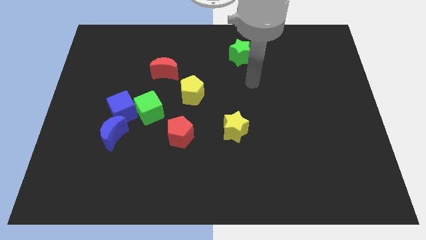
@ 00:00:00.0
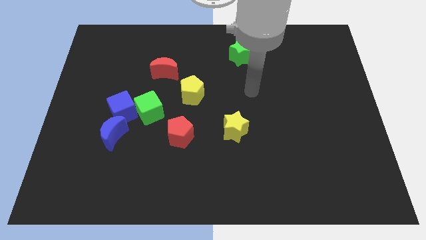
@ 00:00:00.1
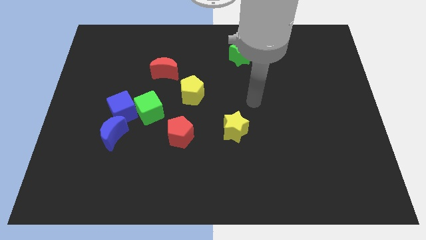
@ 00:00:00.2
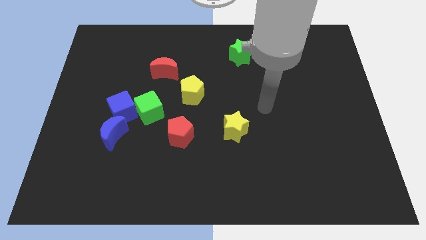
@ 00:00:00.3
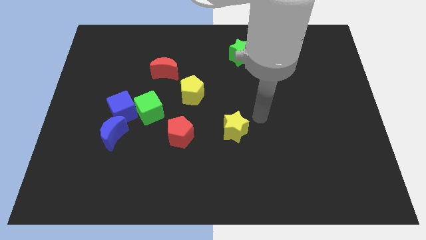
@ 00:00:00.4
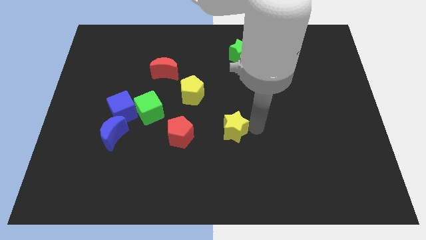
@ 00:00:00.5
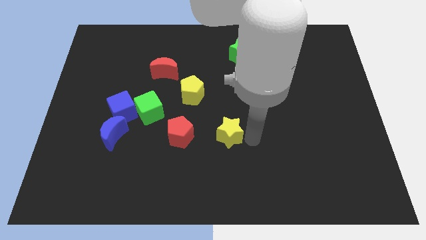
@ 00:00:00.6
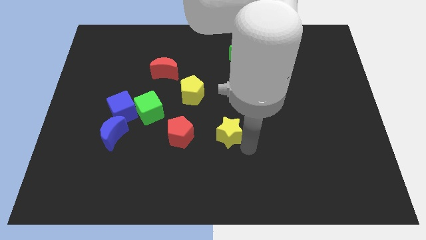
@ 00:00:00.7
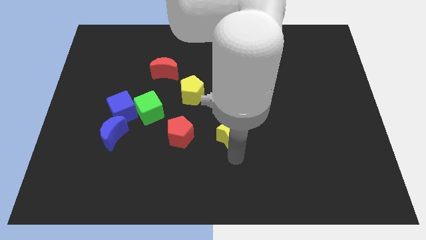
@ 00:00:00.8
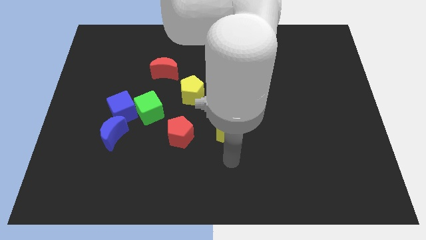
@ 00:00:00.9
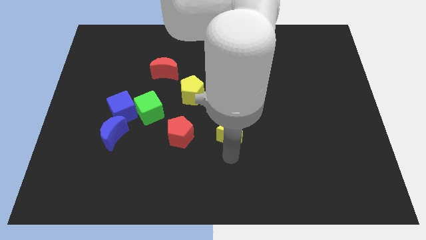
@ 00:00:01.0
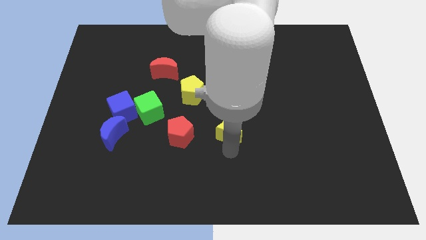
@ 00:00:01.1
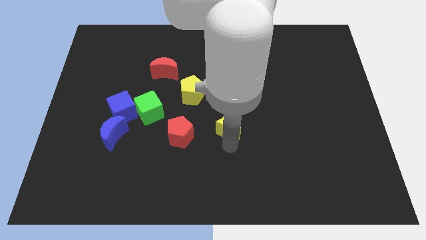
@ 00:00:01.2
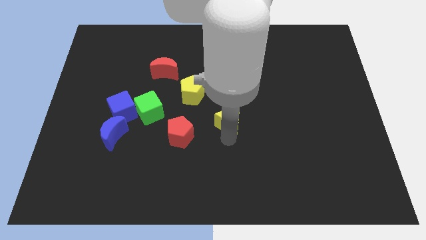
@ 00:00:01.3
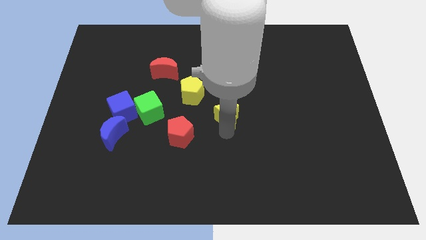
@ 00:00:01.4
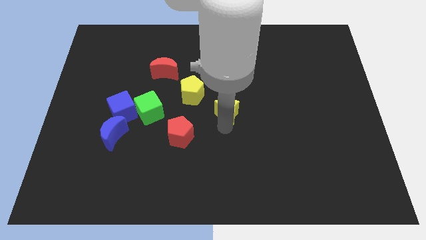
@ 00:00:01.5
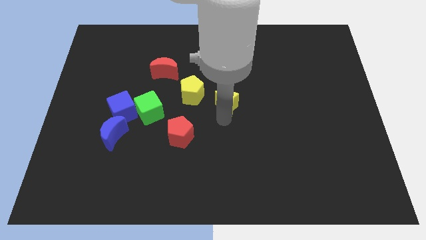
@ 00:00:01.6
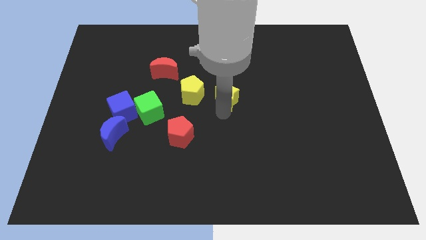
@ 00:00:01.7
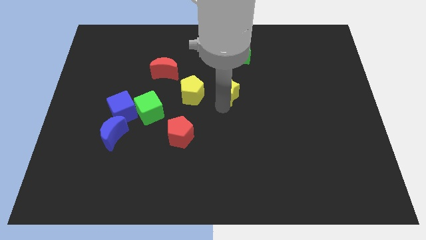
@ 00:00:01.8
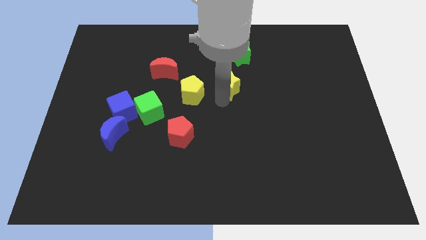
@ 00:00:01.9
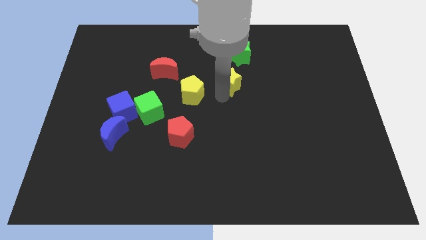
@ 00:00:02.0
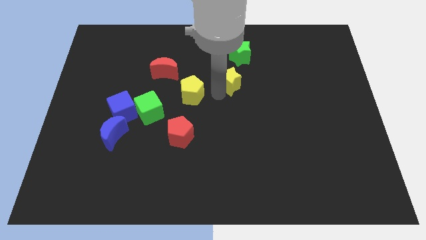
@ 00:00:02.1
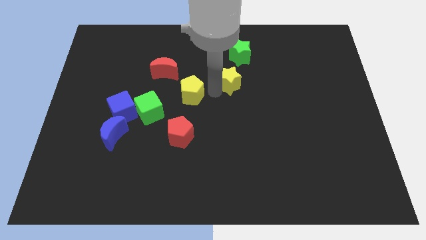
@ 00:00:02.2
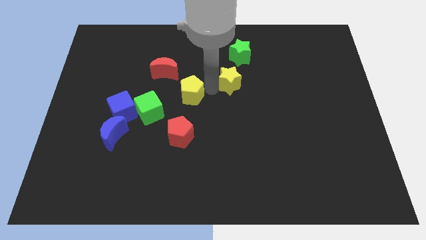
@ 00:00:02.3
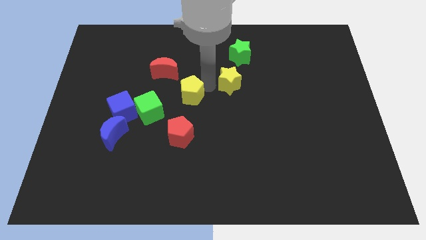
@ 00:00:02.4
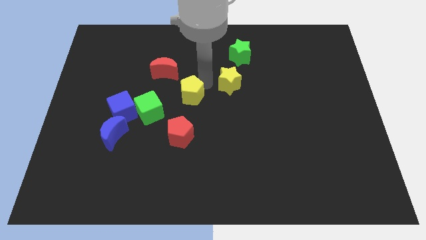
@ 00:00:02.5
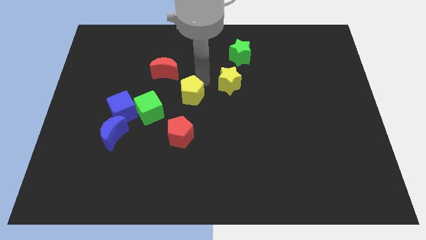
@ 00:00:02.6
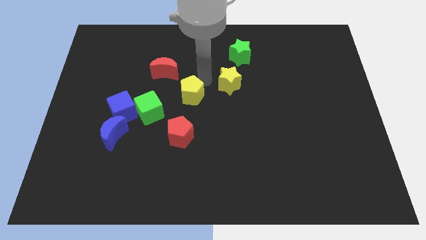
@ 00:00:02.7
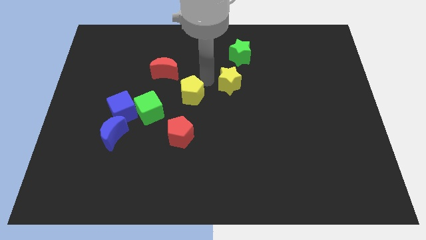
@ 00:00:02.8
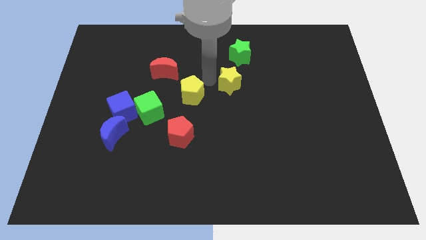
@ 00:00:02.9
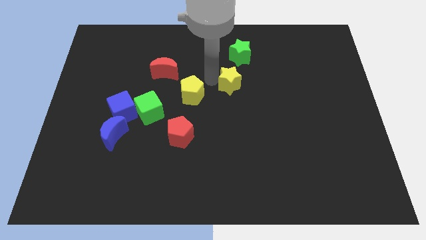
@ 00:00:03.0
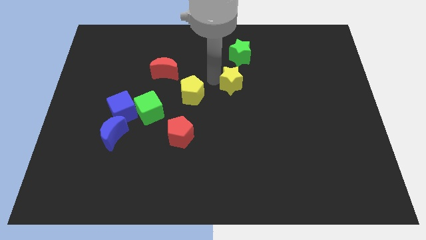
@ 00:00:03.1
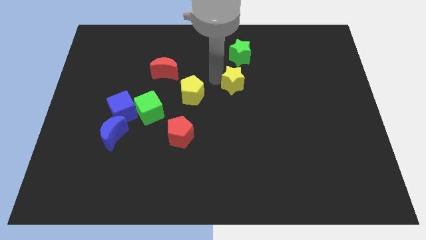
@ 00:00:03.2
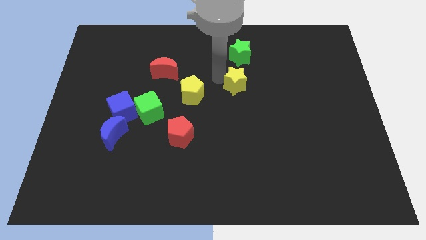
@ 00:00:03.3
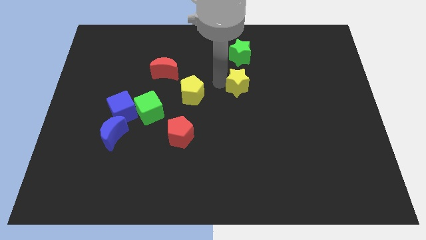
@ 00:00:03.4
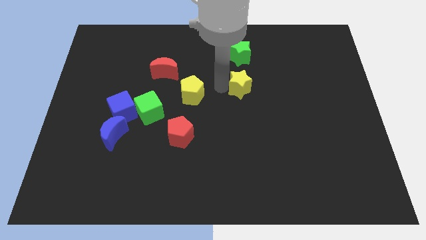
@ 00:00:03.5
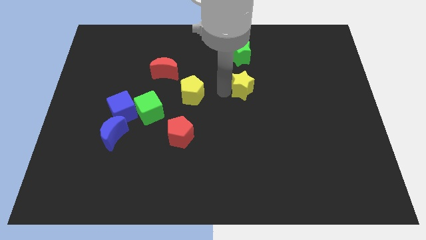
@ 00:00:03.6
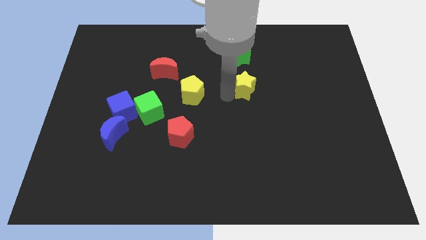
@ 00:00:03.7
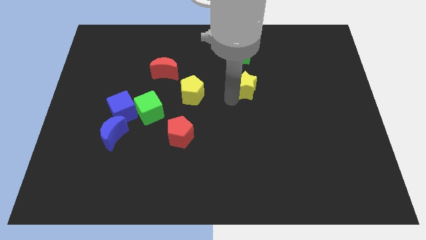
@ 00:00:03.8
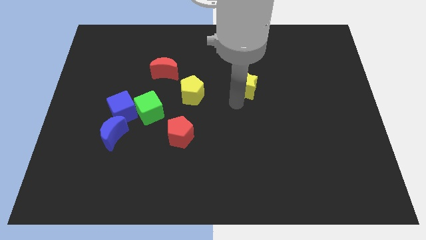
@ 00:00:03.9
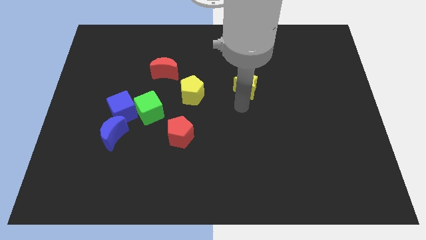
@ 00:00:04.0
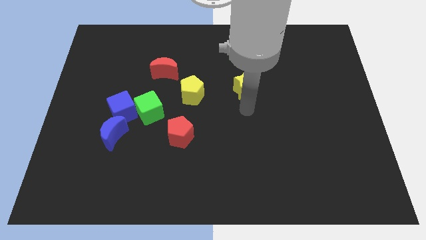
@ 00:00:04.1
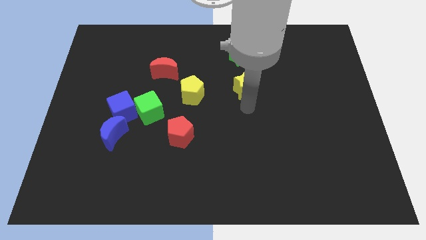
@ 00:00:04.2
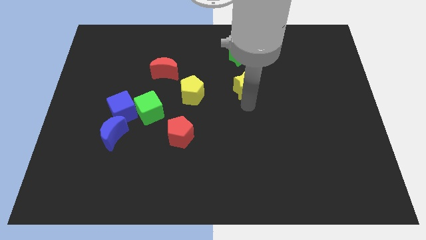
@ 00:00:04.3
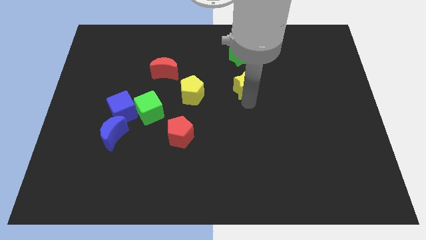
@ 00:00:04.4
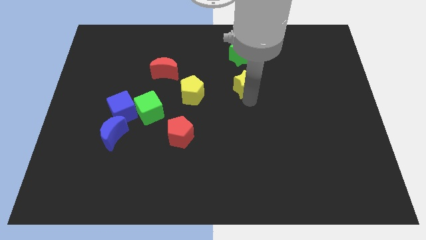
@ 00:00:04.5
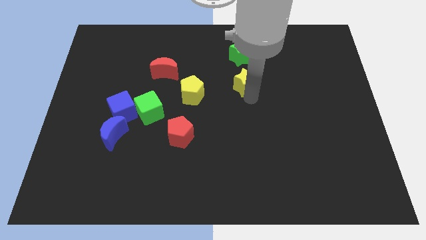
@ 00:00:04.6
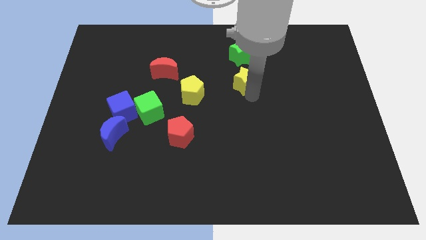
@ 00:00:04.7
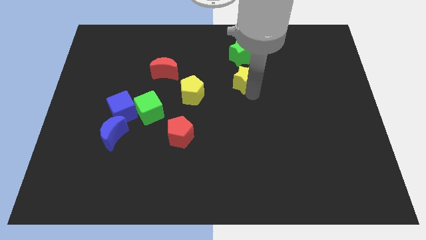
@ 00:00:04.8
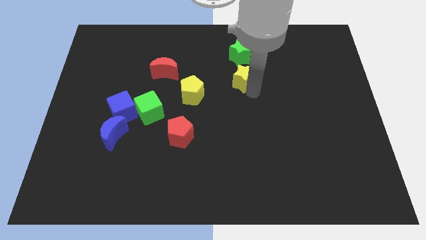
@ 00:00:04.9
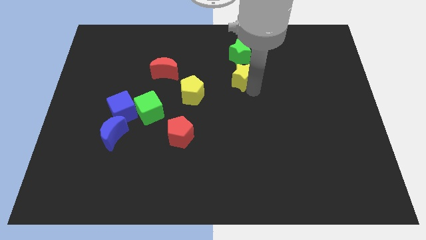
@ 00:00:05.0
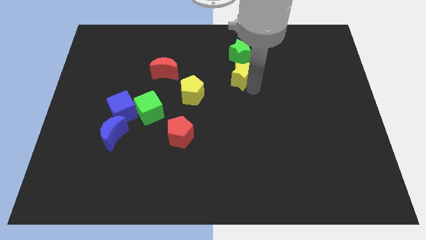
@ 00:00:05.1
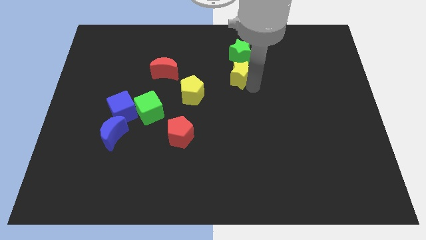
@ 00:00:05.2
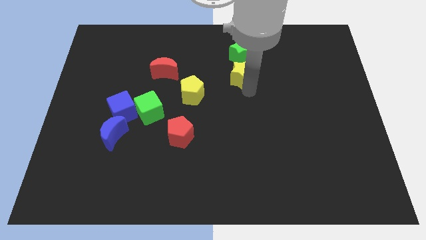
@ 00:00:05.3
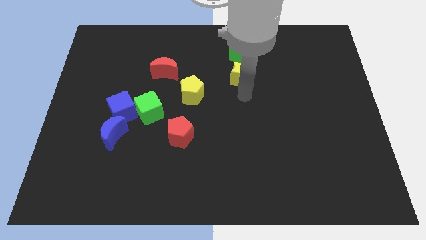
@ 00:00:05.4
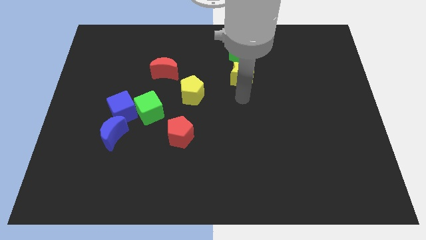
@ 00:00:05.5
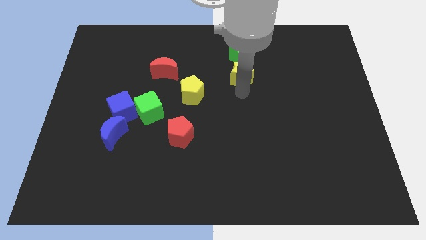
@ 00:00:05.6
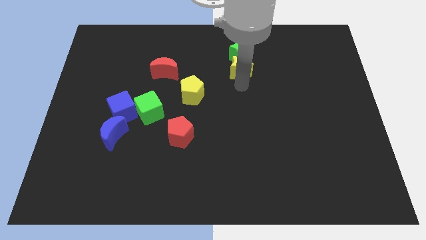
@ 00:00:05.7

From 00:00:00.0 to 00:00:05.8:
slide the yellow star next to the green star

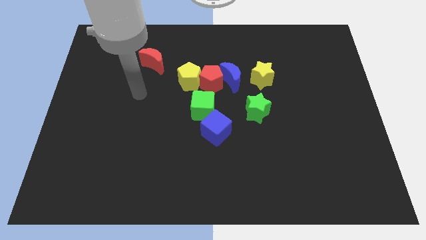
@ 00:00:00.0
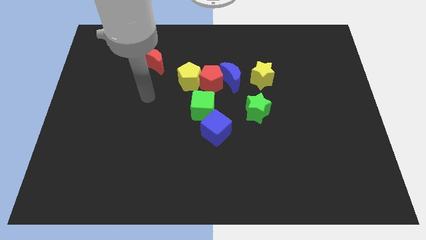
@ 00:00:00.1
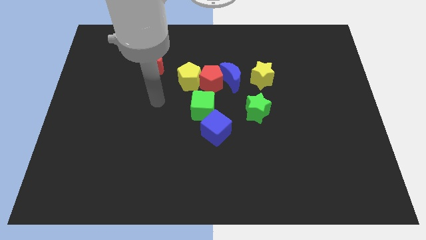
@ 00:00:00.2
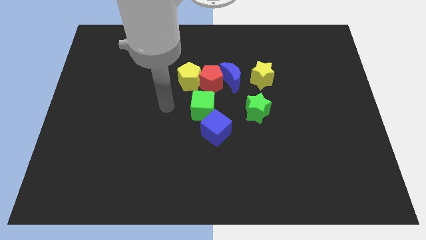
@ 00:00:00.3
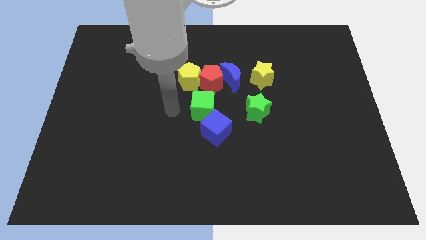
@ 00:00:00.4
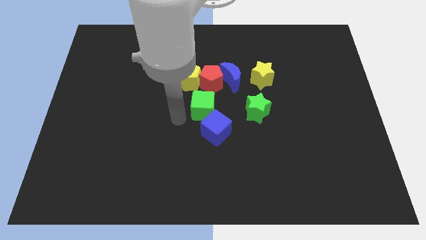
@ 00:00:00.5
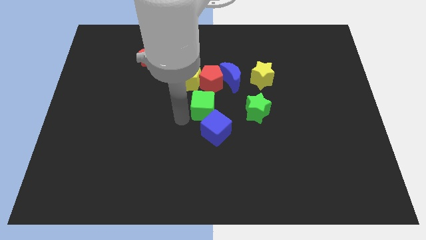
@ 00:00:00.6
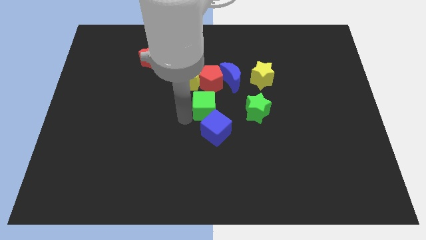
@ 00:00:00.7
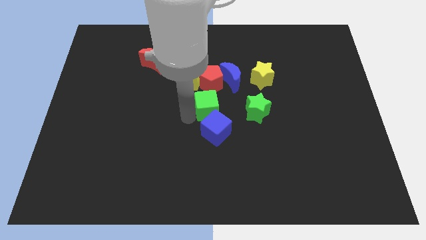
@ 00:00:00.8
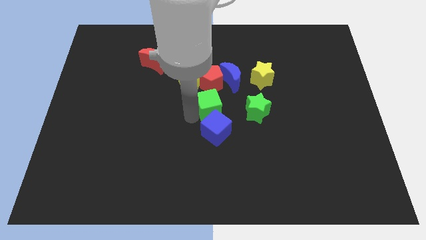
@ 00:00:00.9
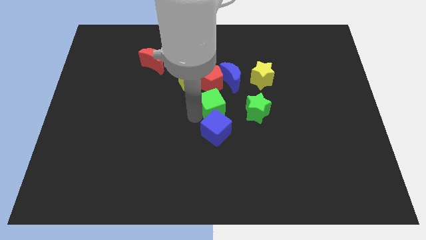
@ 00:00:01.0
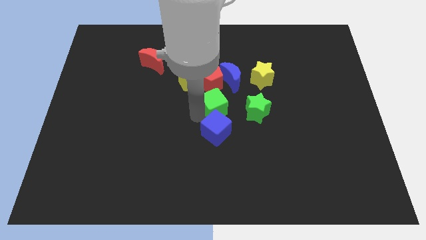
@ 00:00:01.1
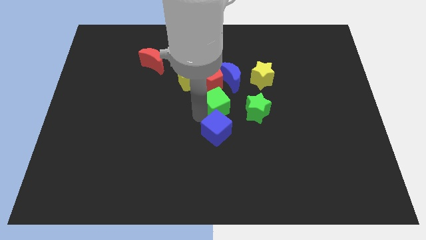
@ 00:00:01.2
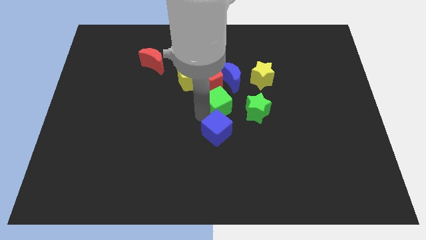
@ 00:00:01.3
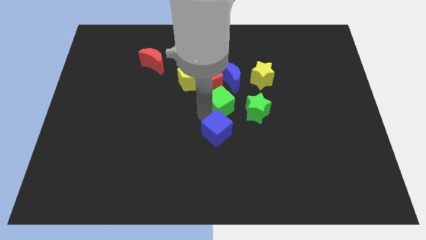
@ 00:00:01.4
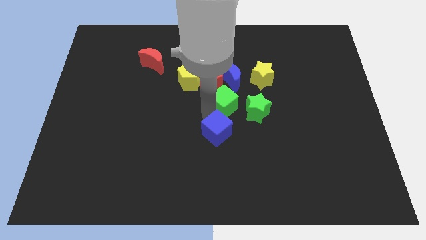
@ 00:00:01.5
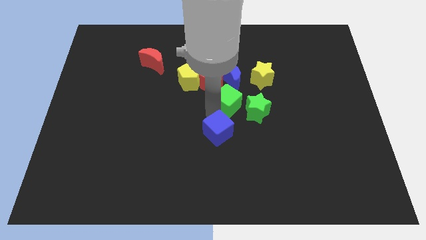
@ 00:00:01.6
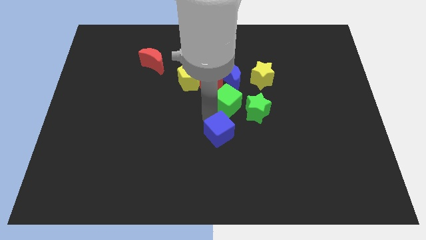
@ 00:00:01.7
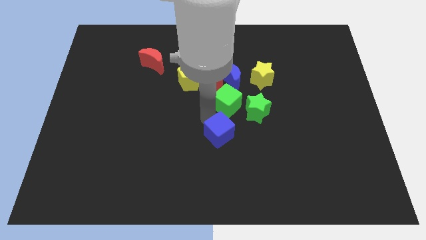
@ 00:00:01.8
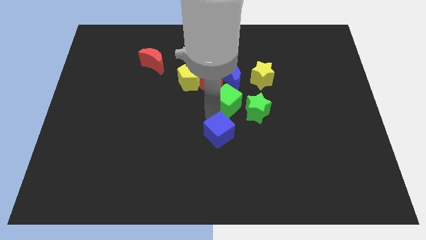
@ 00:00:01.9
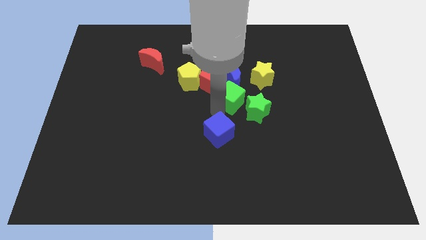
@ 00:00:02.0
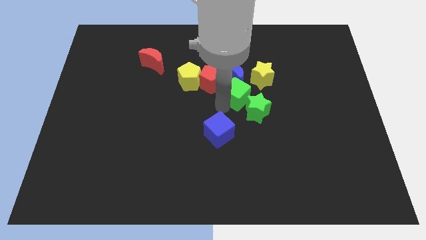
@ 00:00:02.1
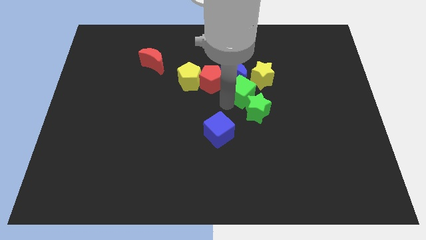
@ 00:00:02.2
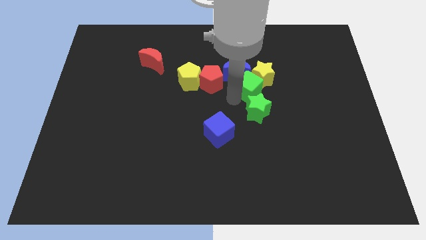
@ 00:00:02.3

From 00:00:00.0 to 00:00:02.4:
push the green cube to the yellow star
